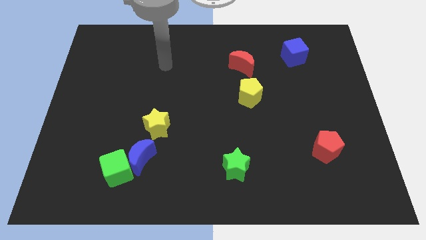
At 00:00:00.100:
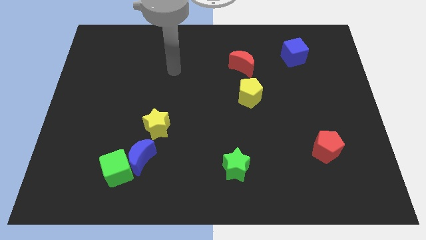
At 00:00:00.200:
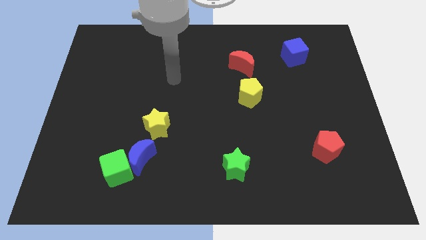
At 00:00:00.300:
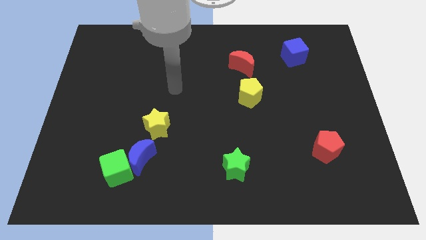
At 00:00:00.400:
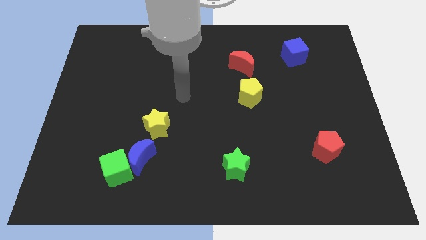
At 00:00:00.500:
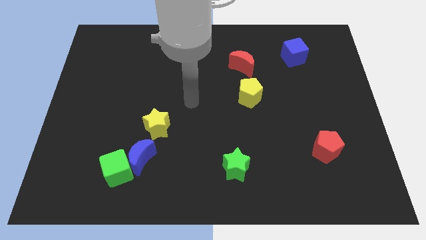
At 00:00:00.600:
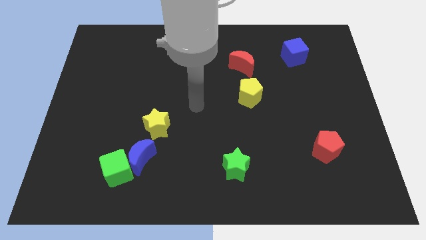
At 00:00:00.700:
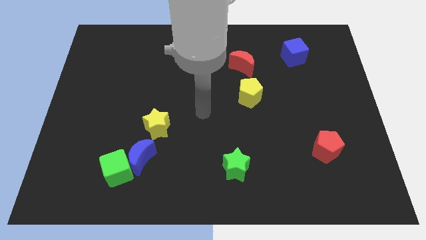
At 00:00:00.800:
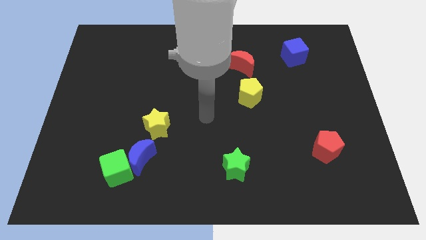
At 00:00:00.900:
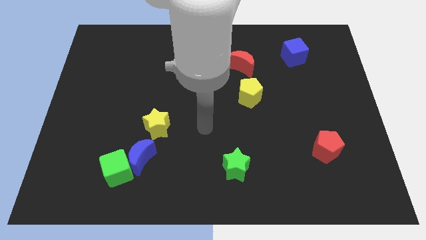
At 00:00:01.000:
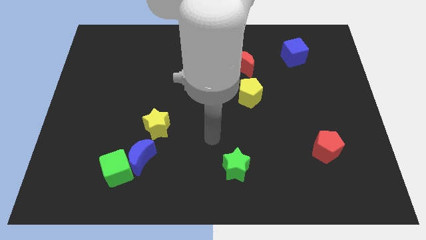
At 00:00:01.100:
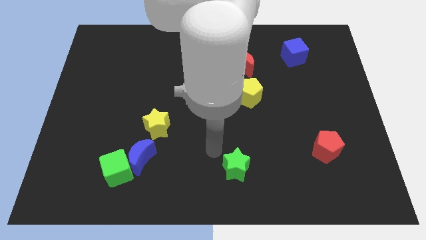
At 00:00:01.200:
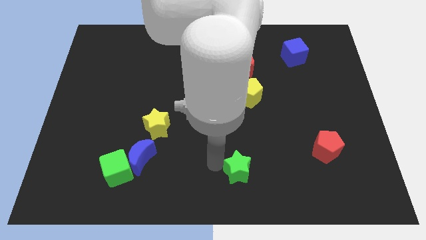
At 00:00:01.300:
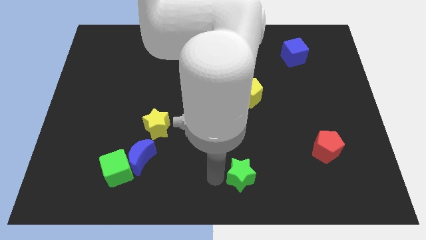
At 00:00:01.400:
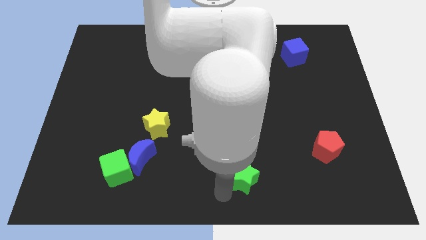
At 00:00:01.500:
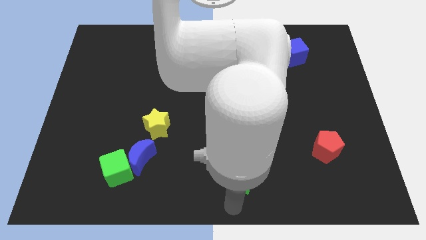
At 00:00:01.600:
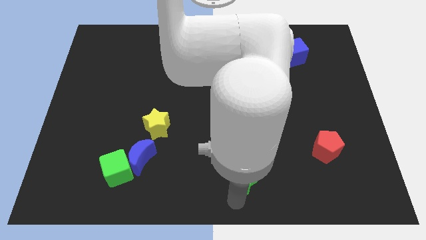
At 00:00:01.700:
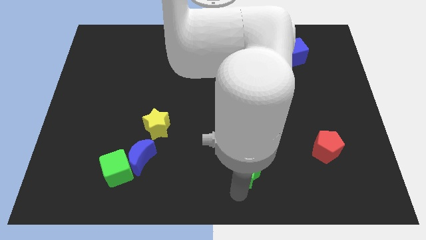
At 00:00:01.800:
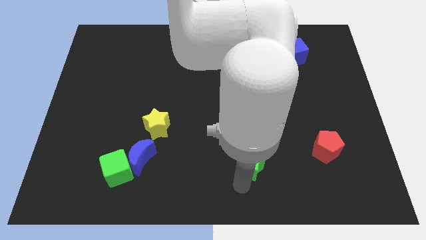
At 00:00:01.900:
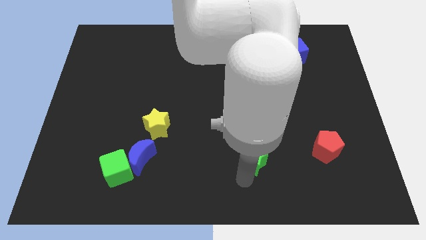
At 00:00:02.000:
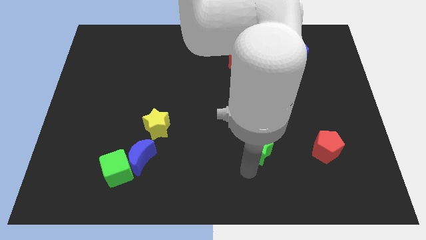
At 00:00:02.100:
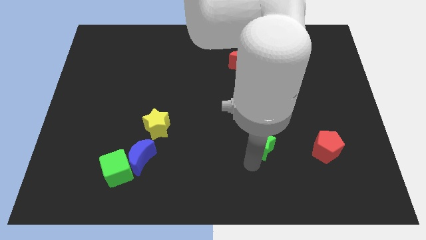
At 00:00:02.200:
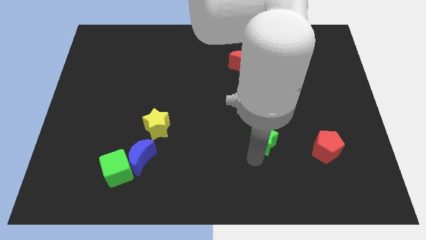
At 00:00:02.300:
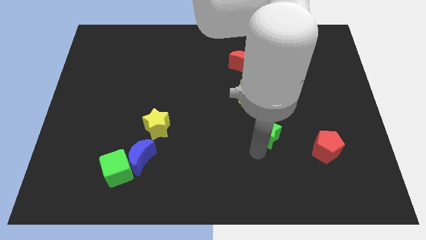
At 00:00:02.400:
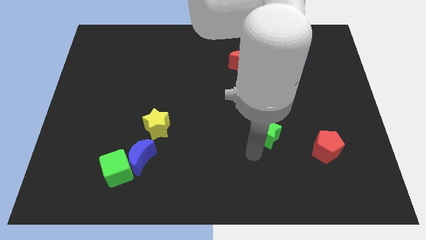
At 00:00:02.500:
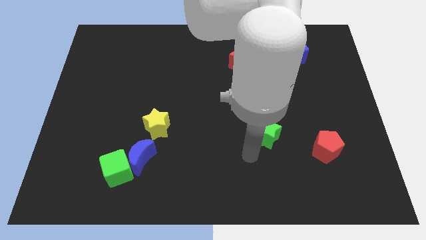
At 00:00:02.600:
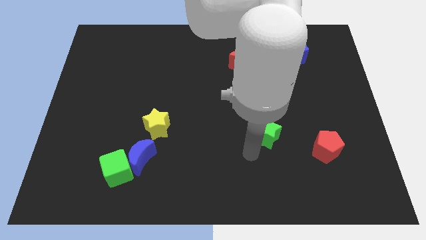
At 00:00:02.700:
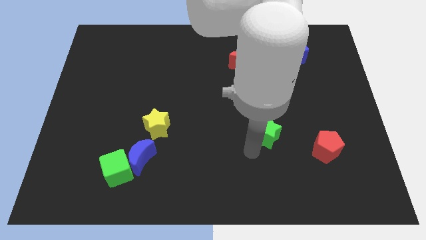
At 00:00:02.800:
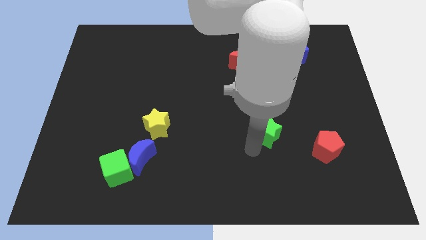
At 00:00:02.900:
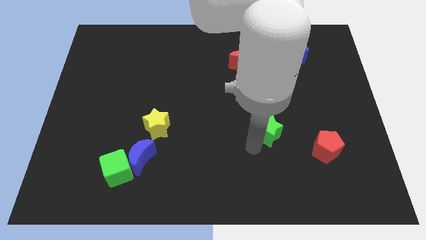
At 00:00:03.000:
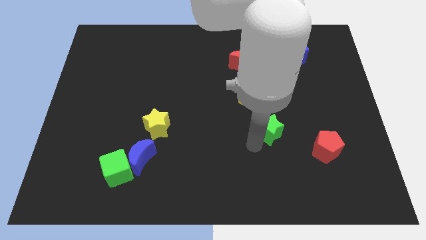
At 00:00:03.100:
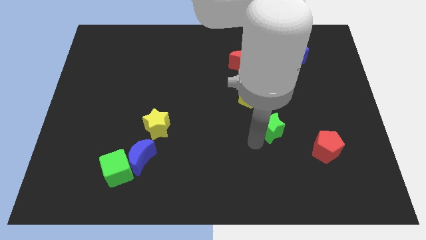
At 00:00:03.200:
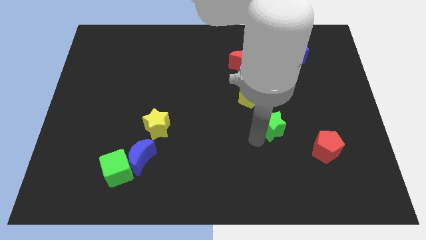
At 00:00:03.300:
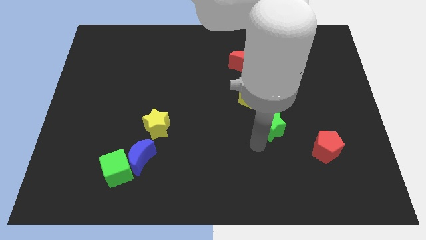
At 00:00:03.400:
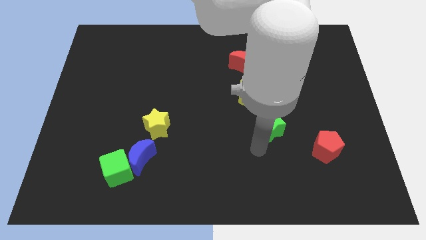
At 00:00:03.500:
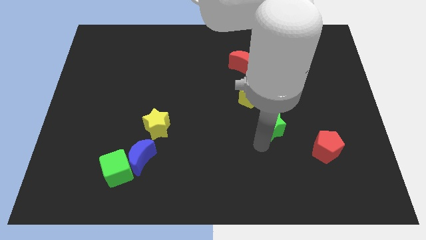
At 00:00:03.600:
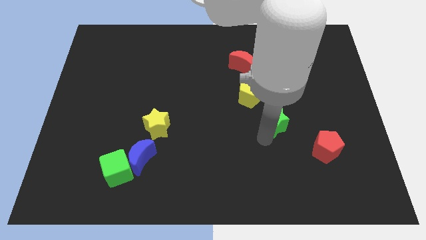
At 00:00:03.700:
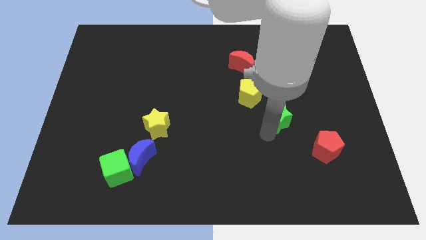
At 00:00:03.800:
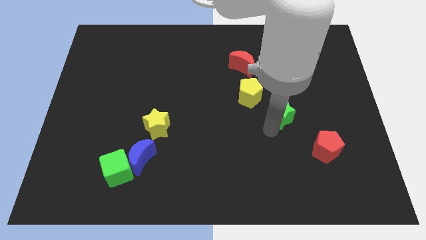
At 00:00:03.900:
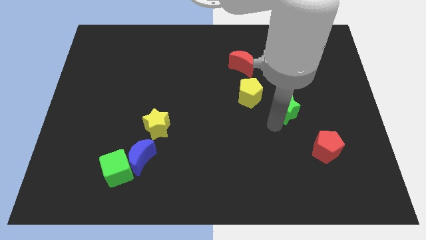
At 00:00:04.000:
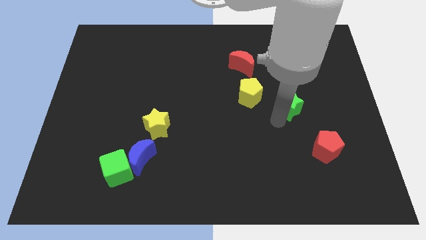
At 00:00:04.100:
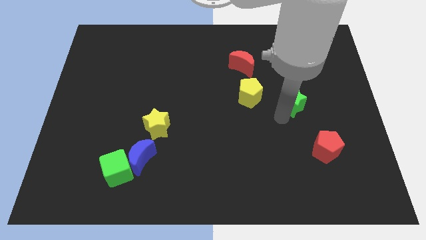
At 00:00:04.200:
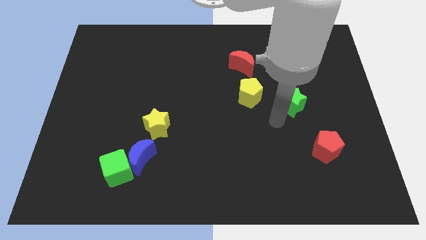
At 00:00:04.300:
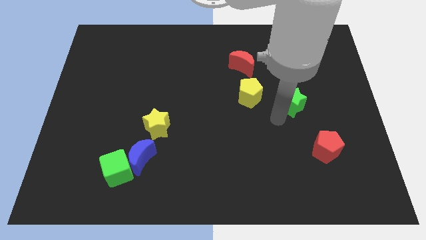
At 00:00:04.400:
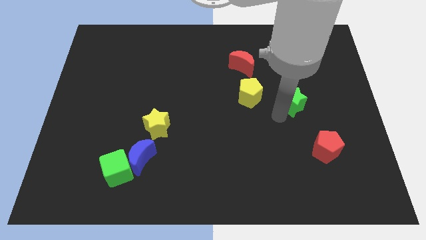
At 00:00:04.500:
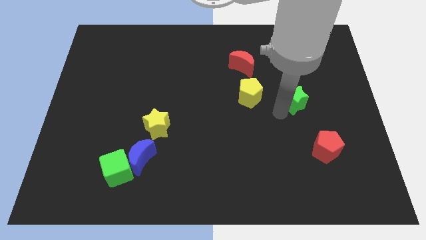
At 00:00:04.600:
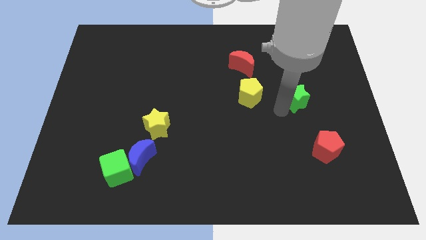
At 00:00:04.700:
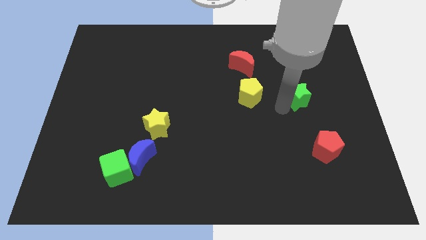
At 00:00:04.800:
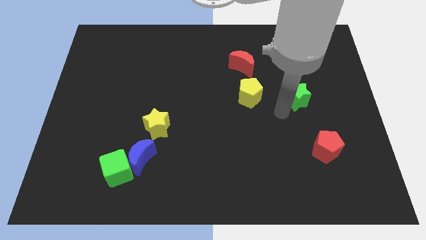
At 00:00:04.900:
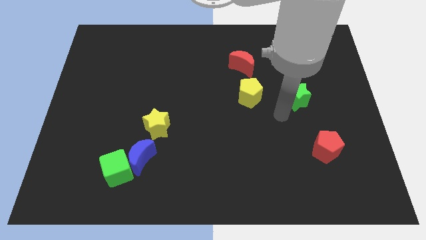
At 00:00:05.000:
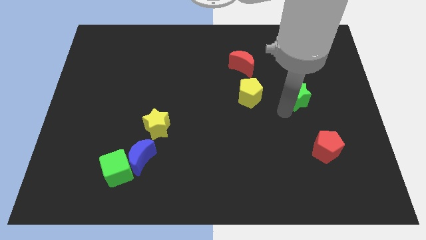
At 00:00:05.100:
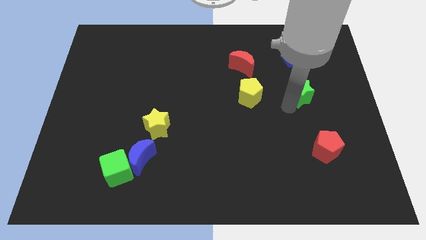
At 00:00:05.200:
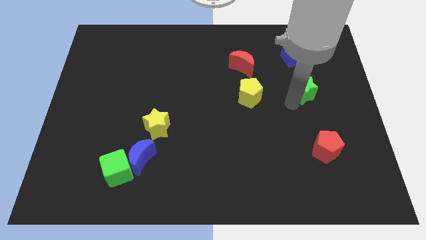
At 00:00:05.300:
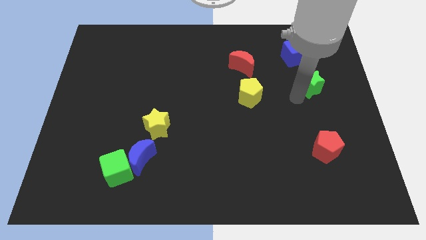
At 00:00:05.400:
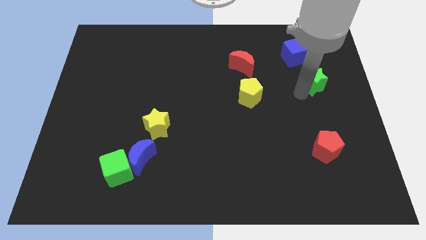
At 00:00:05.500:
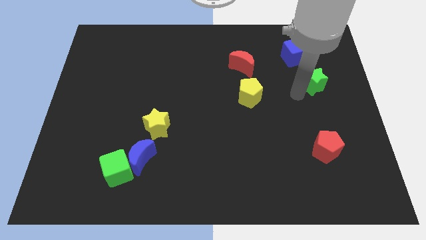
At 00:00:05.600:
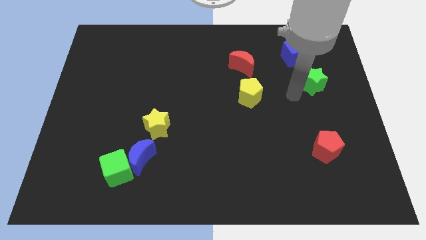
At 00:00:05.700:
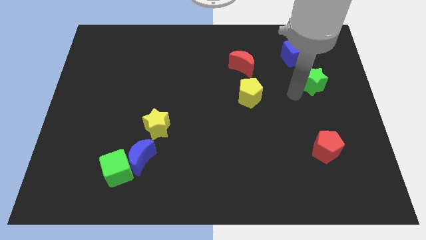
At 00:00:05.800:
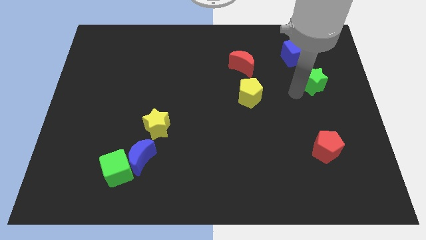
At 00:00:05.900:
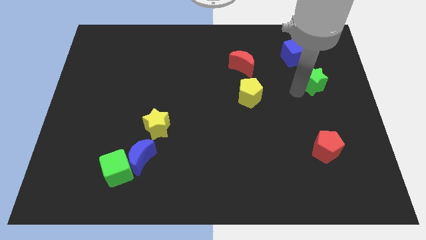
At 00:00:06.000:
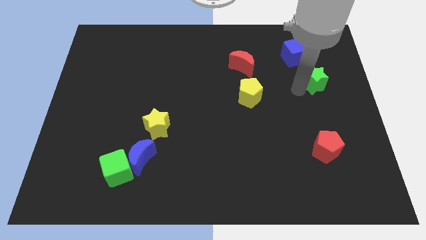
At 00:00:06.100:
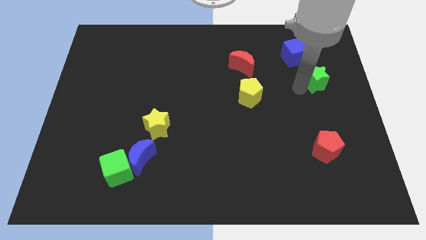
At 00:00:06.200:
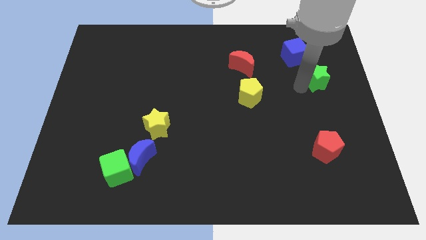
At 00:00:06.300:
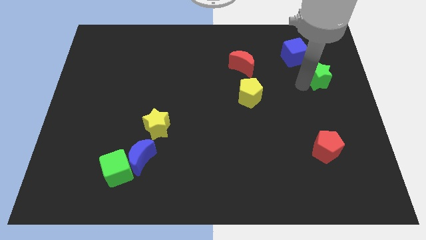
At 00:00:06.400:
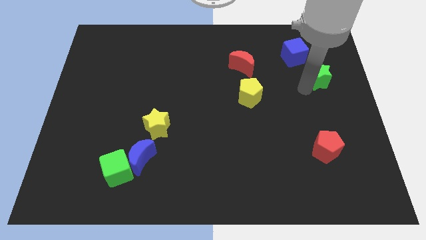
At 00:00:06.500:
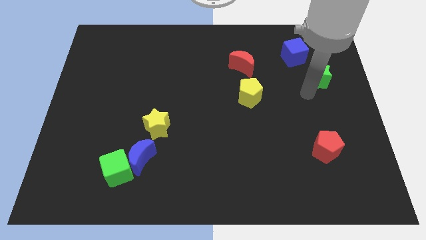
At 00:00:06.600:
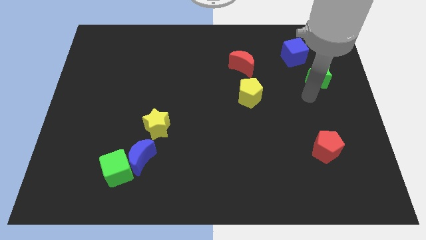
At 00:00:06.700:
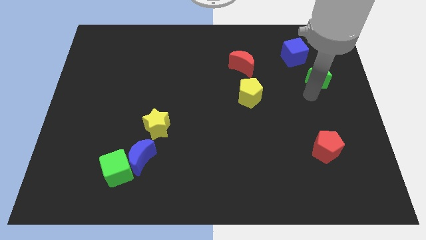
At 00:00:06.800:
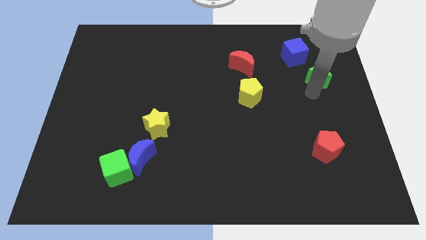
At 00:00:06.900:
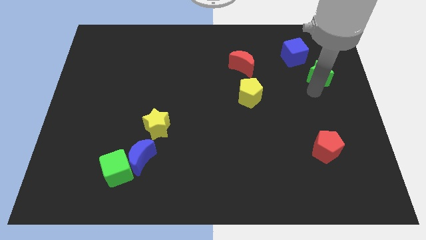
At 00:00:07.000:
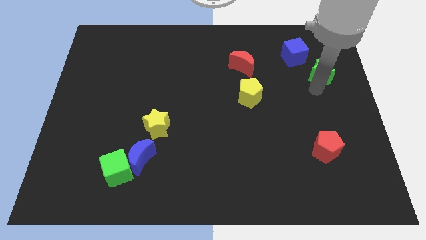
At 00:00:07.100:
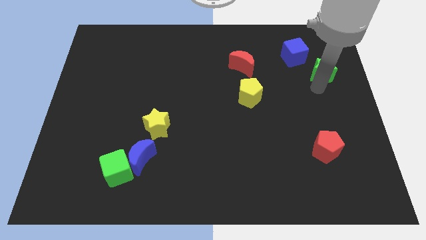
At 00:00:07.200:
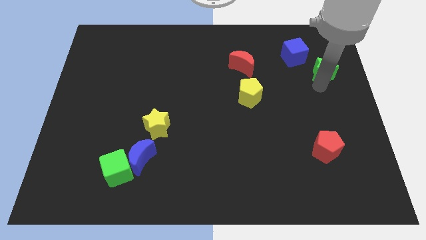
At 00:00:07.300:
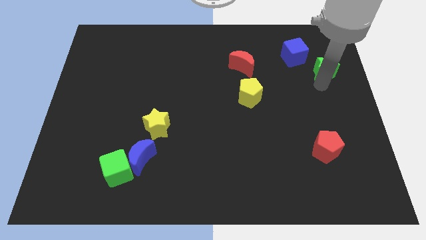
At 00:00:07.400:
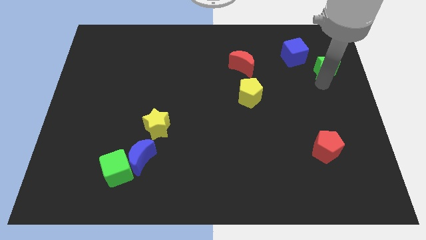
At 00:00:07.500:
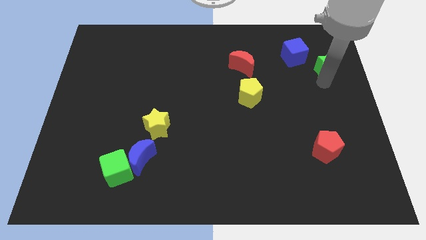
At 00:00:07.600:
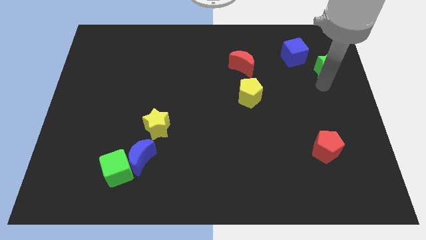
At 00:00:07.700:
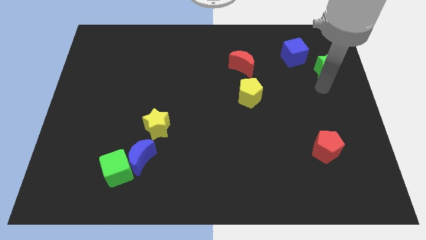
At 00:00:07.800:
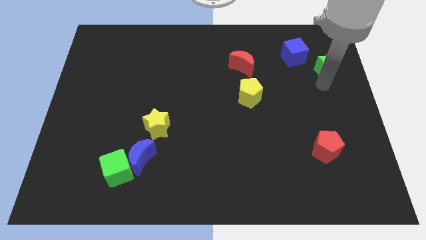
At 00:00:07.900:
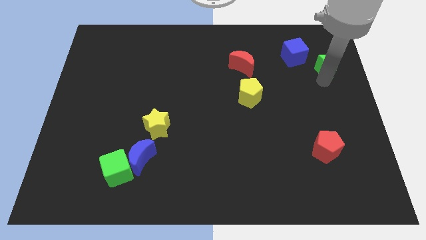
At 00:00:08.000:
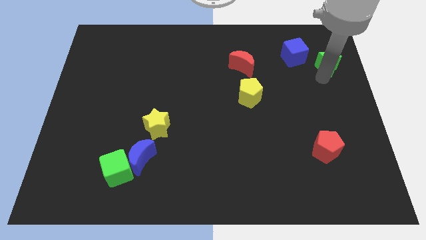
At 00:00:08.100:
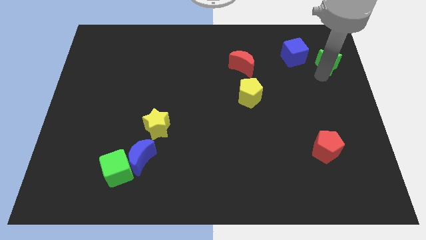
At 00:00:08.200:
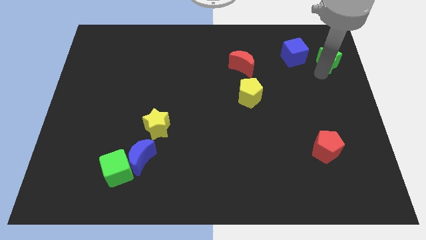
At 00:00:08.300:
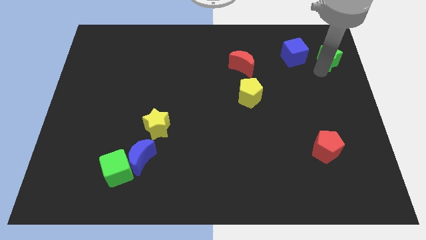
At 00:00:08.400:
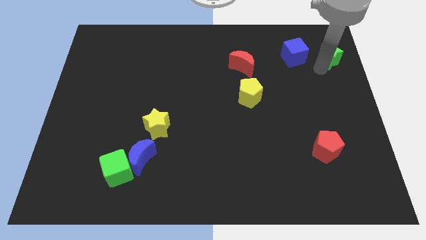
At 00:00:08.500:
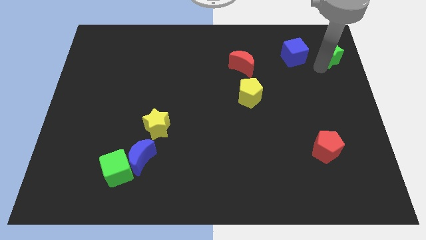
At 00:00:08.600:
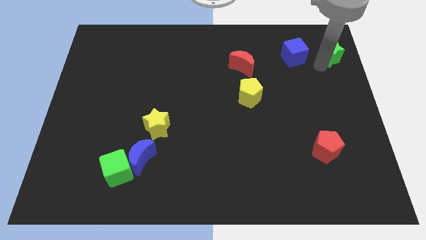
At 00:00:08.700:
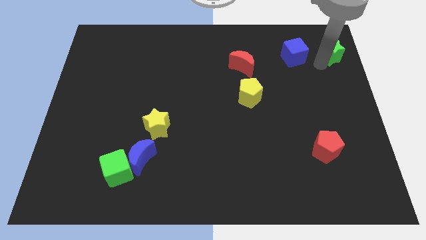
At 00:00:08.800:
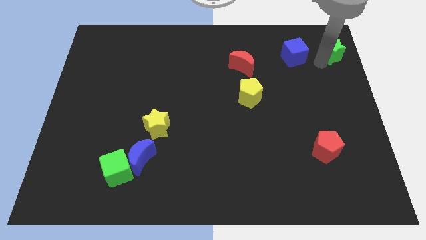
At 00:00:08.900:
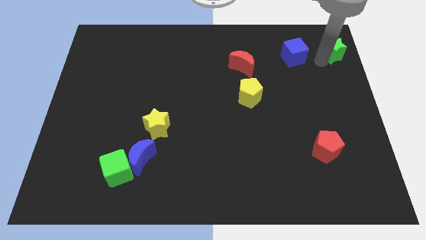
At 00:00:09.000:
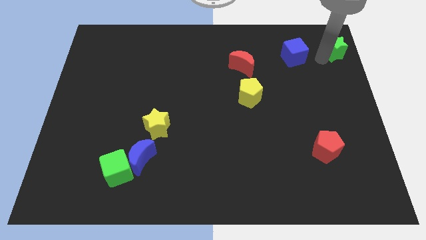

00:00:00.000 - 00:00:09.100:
slide the green star to the upper right corner
